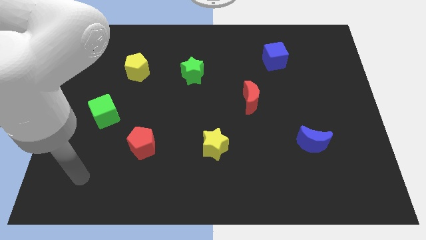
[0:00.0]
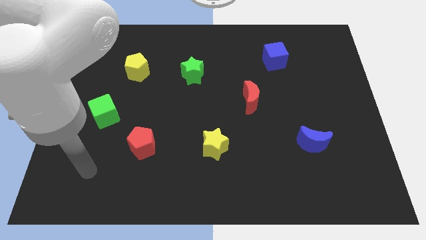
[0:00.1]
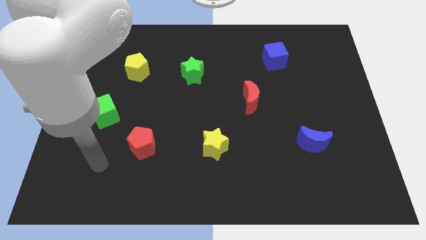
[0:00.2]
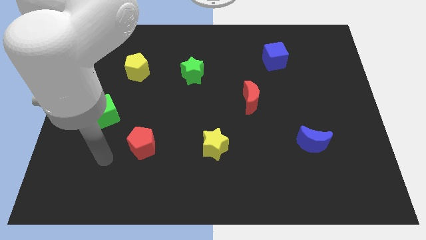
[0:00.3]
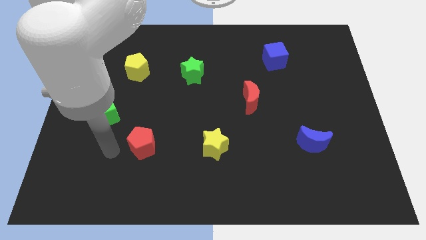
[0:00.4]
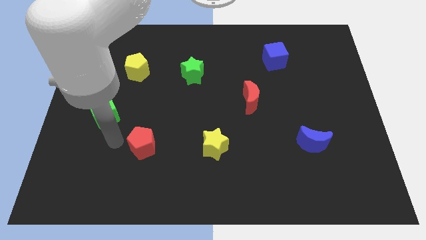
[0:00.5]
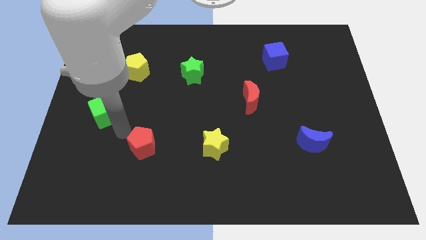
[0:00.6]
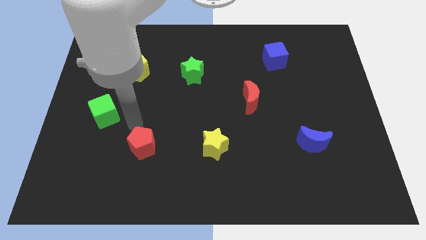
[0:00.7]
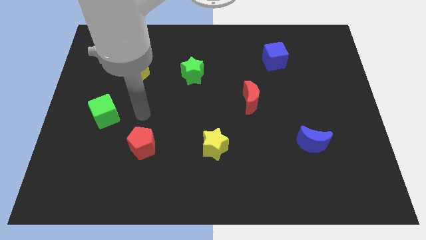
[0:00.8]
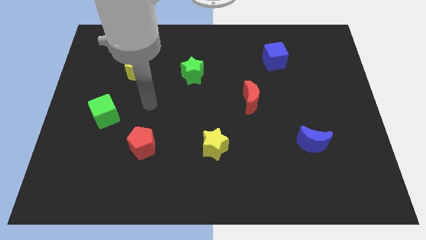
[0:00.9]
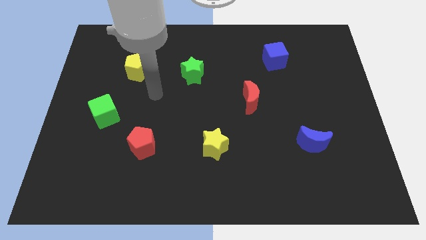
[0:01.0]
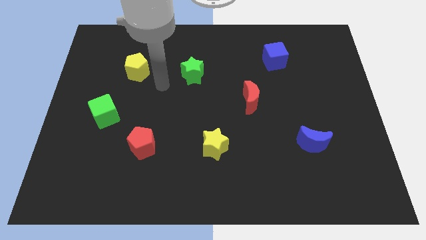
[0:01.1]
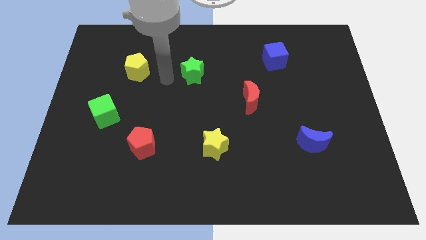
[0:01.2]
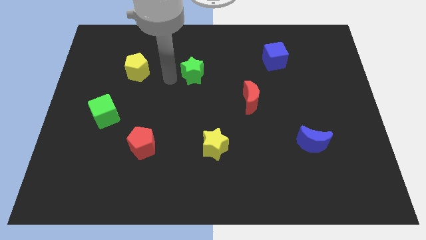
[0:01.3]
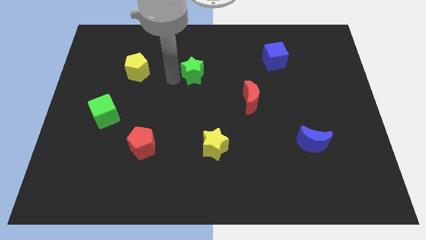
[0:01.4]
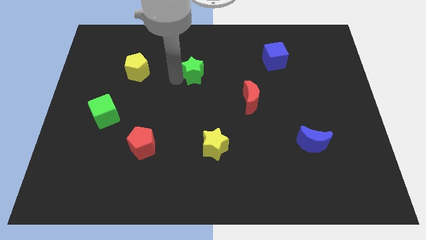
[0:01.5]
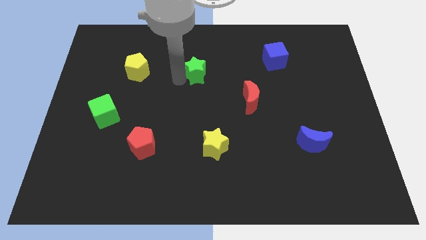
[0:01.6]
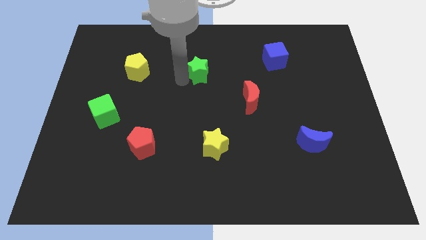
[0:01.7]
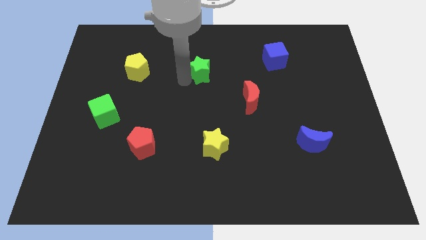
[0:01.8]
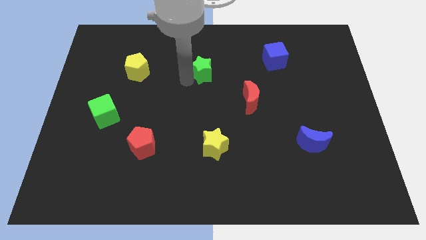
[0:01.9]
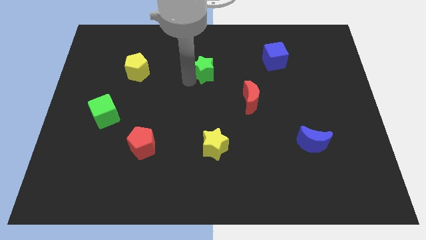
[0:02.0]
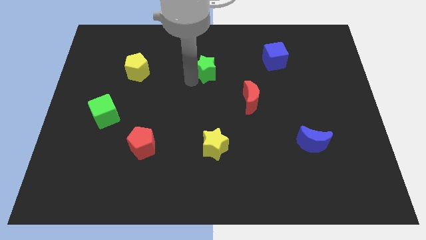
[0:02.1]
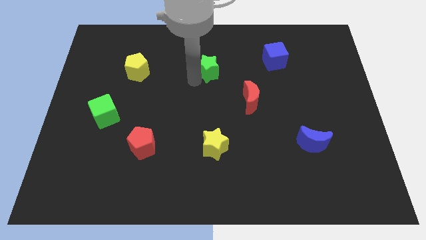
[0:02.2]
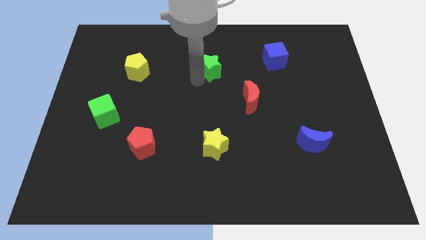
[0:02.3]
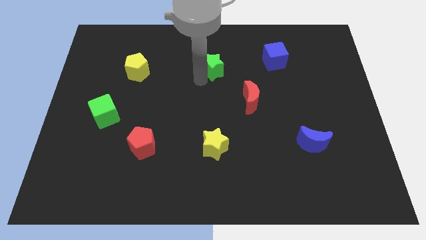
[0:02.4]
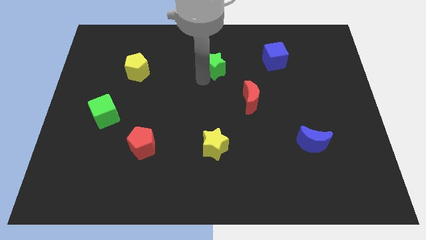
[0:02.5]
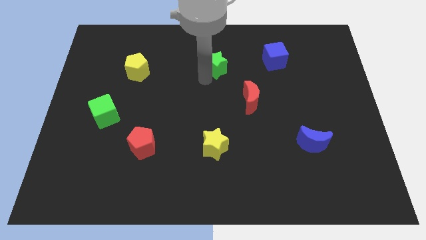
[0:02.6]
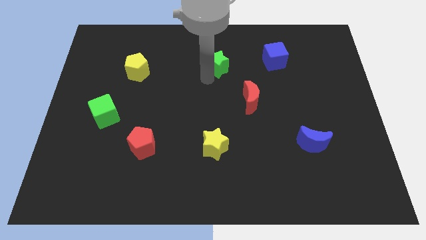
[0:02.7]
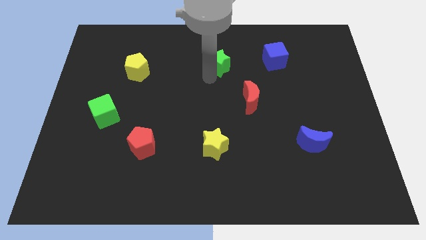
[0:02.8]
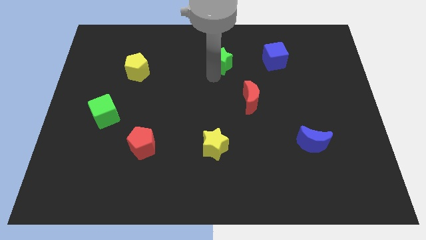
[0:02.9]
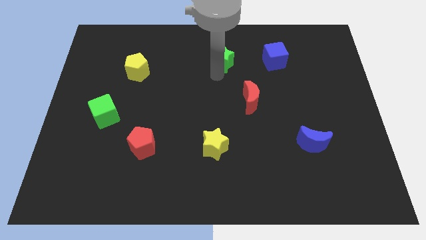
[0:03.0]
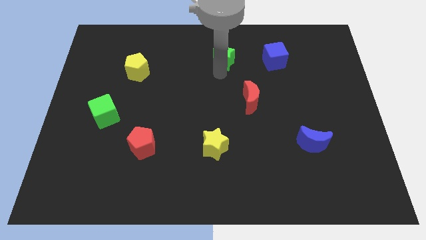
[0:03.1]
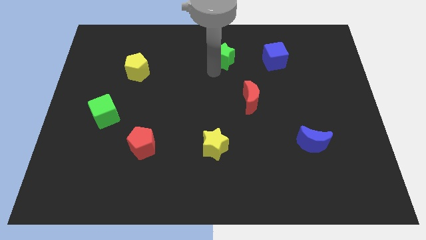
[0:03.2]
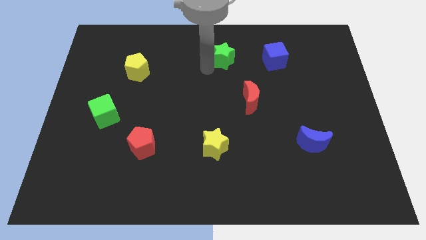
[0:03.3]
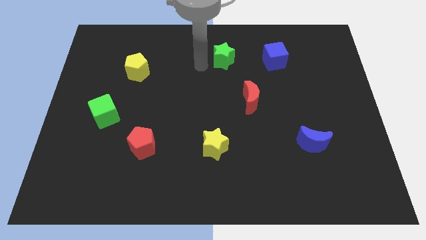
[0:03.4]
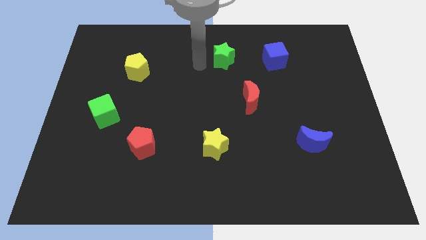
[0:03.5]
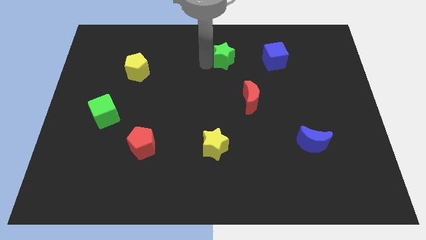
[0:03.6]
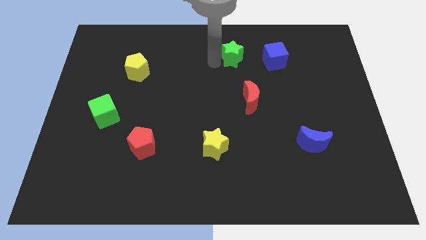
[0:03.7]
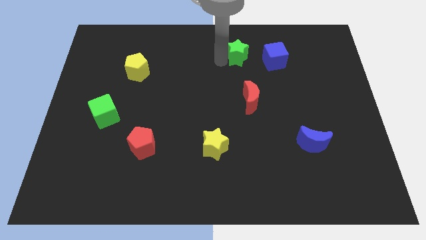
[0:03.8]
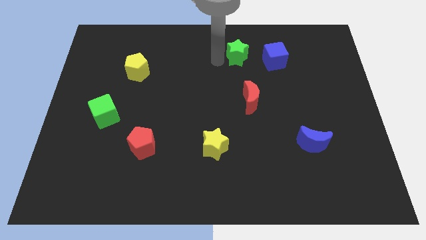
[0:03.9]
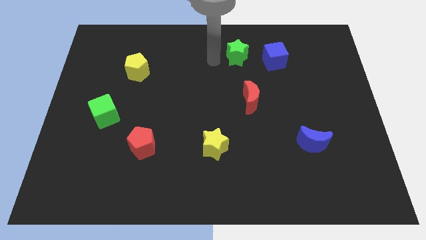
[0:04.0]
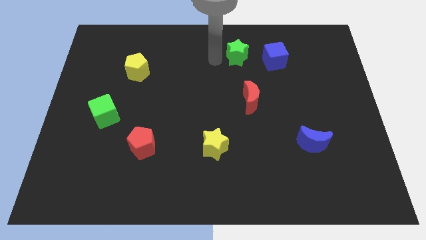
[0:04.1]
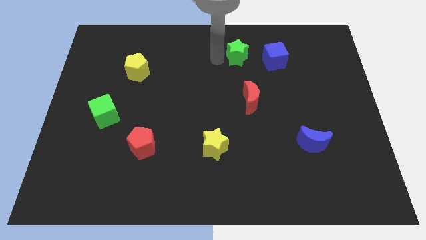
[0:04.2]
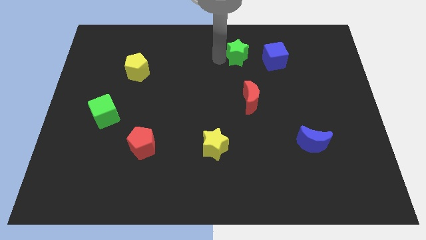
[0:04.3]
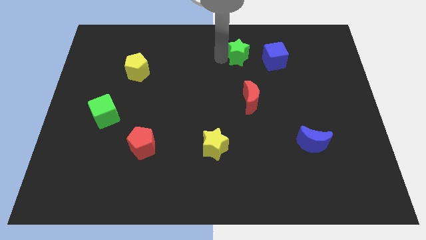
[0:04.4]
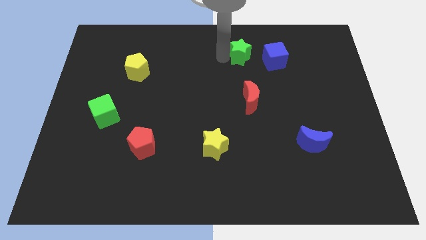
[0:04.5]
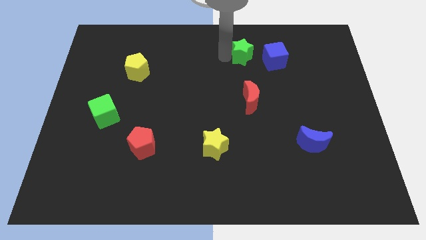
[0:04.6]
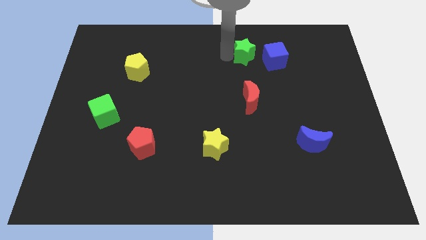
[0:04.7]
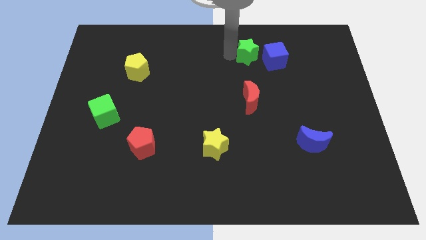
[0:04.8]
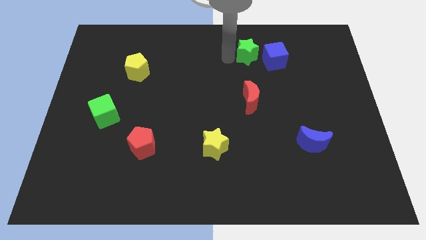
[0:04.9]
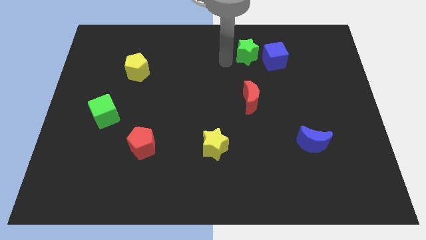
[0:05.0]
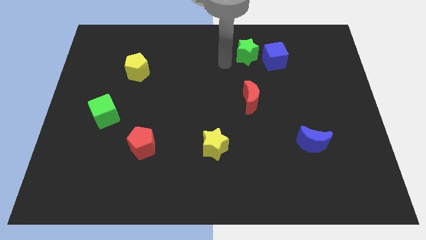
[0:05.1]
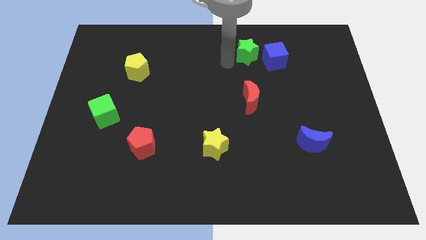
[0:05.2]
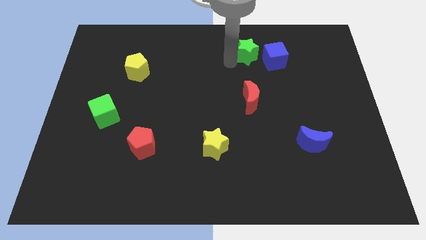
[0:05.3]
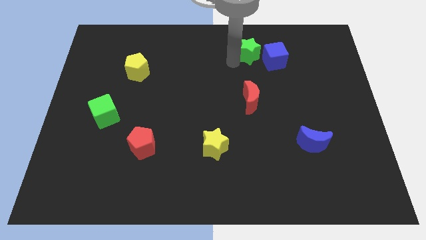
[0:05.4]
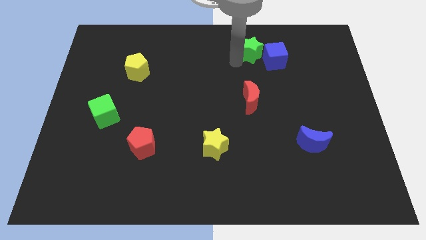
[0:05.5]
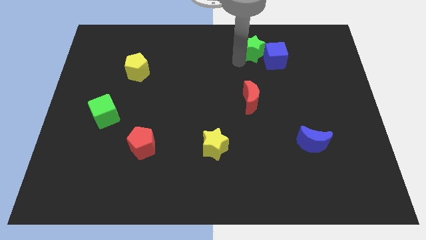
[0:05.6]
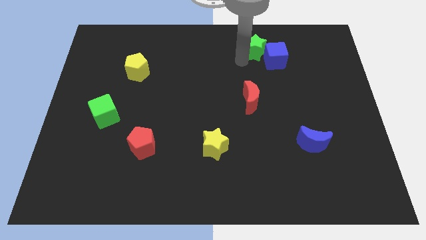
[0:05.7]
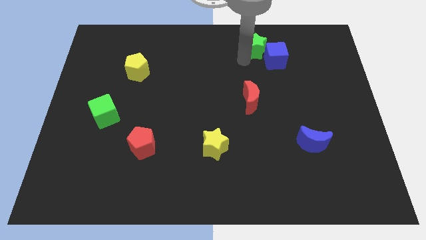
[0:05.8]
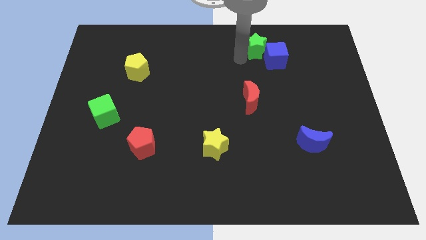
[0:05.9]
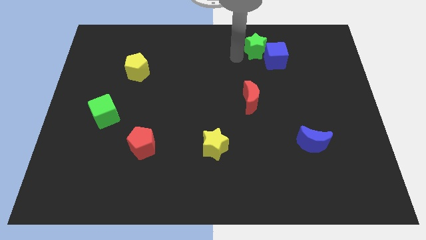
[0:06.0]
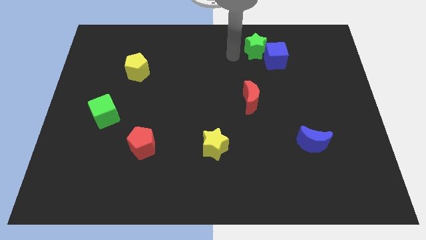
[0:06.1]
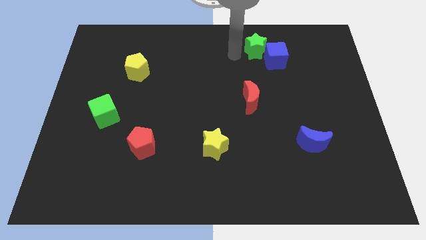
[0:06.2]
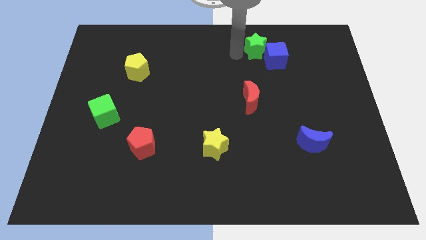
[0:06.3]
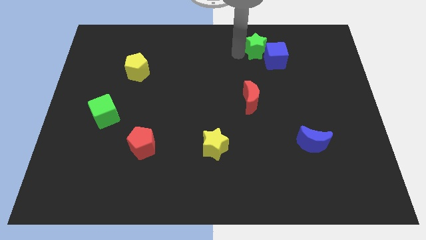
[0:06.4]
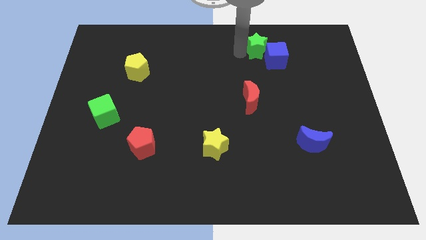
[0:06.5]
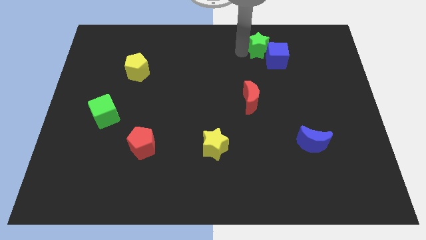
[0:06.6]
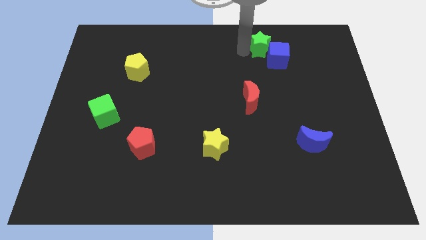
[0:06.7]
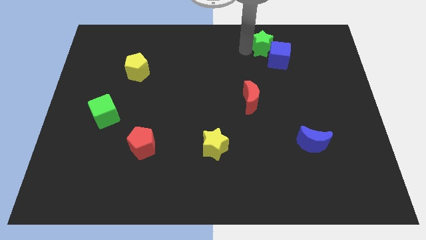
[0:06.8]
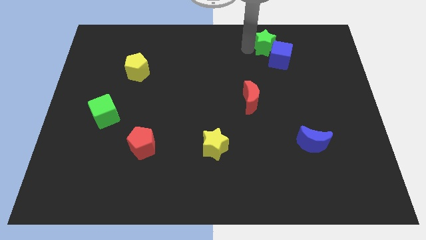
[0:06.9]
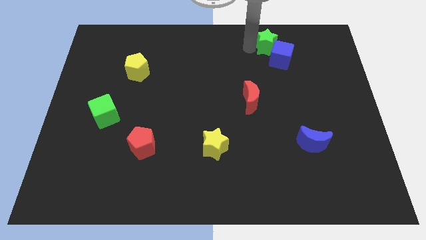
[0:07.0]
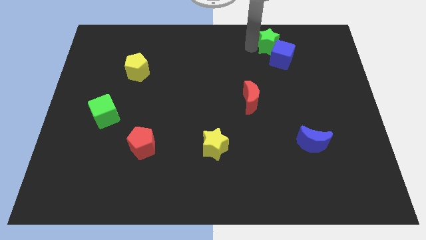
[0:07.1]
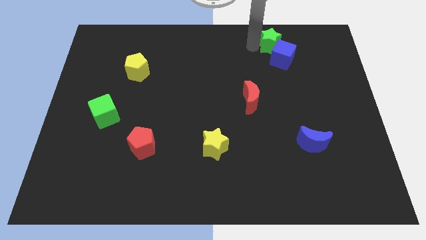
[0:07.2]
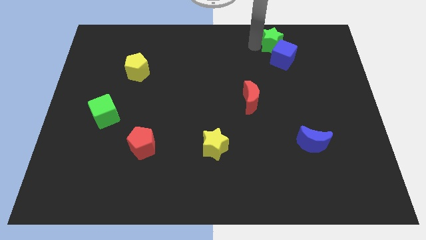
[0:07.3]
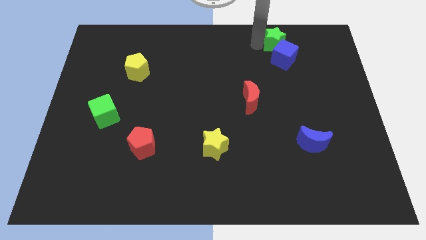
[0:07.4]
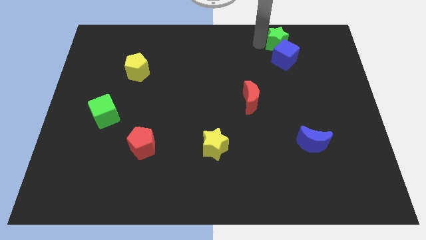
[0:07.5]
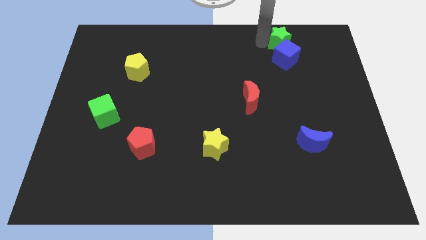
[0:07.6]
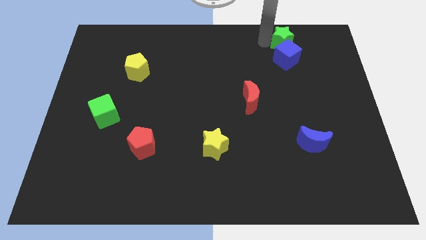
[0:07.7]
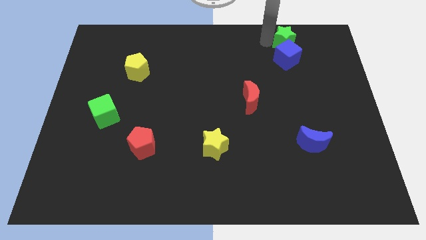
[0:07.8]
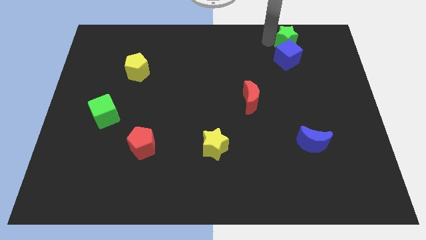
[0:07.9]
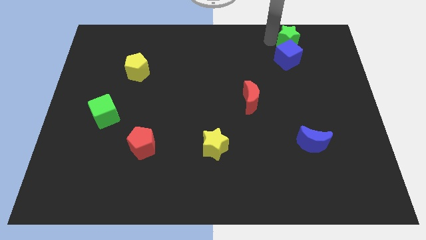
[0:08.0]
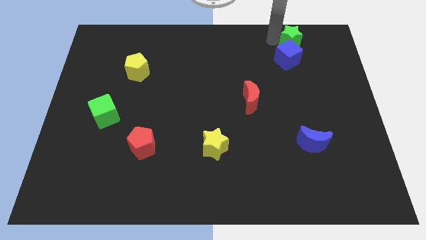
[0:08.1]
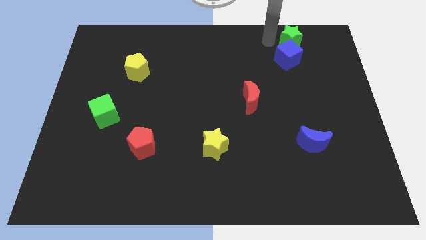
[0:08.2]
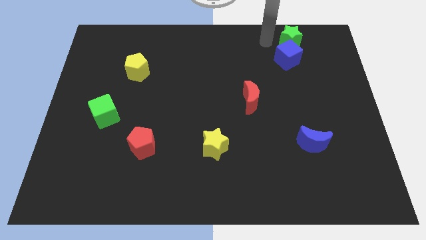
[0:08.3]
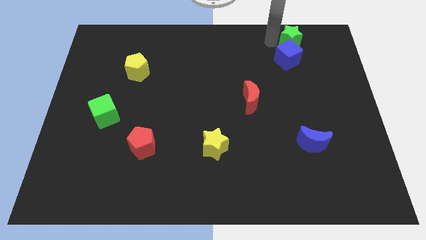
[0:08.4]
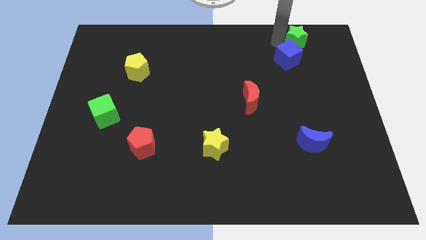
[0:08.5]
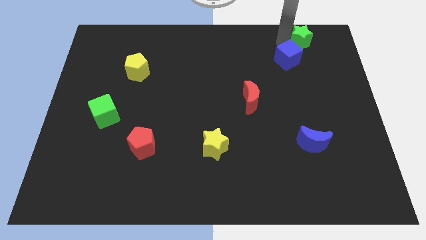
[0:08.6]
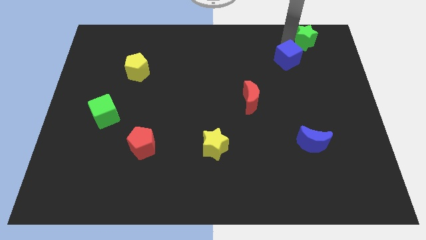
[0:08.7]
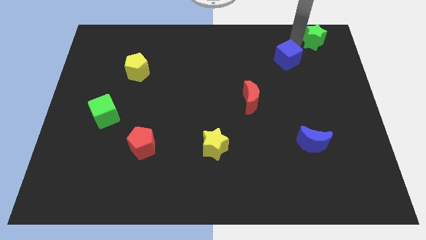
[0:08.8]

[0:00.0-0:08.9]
put the green star to the top right

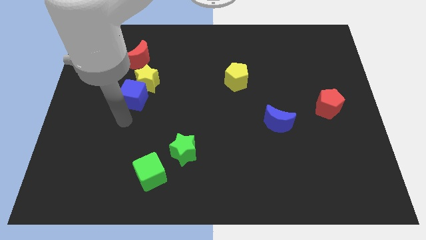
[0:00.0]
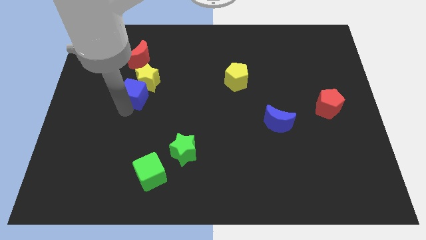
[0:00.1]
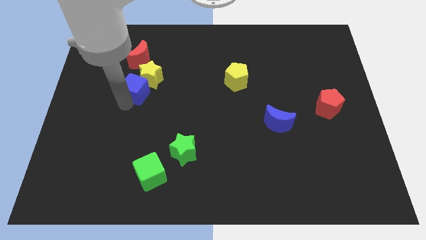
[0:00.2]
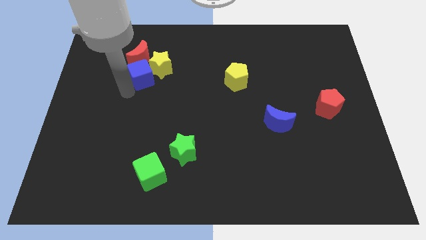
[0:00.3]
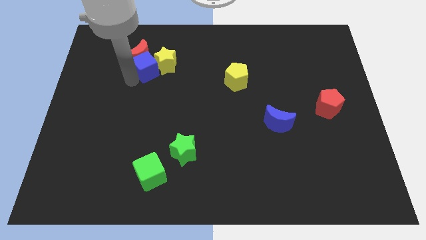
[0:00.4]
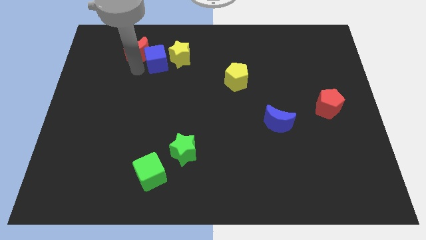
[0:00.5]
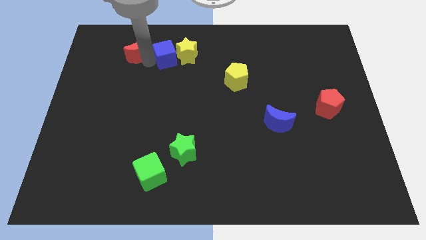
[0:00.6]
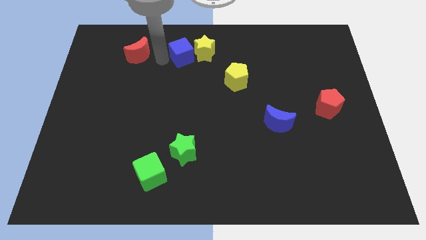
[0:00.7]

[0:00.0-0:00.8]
move the yellow star to the towards your base
